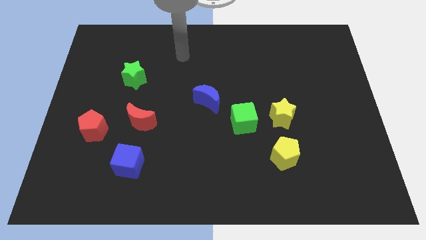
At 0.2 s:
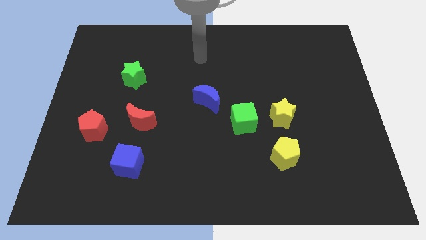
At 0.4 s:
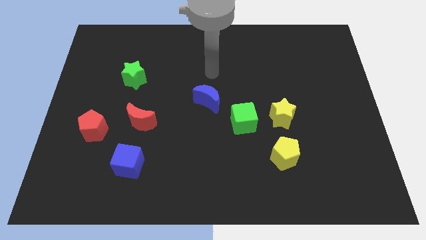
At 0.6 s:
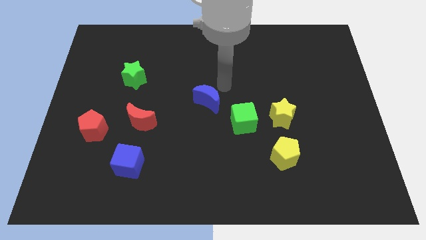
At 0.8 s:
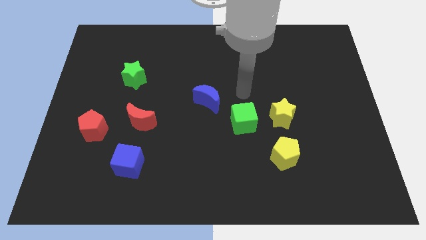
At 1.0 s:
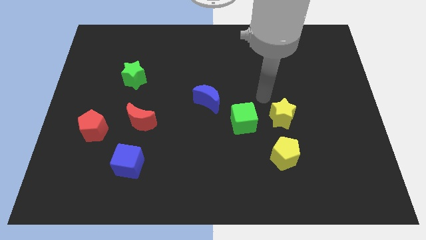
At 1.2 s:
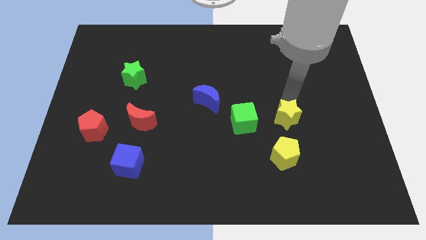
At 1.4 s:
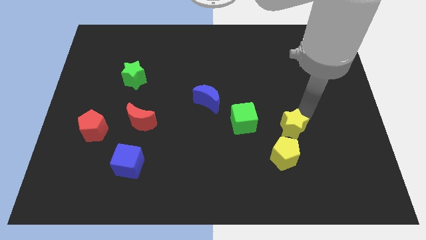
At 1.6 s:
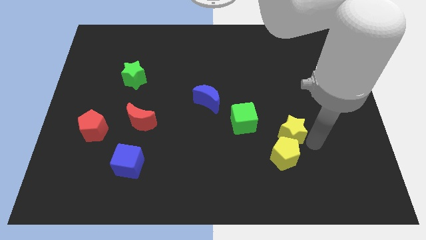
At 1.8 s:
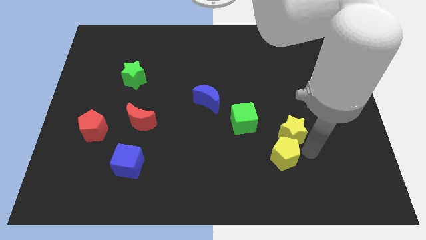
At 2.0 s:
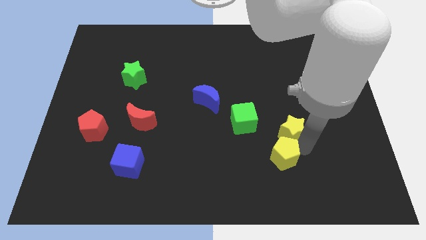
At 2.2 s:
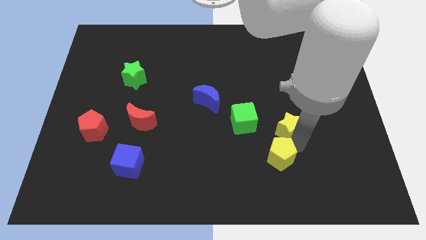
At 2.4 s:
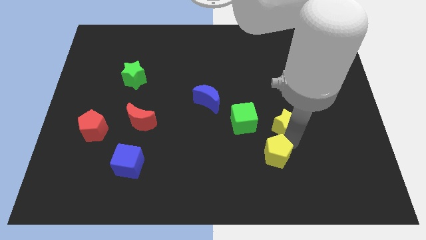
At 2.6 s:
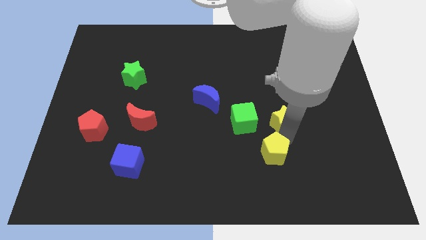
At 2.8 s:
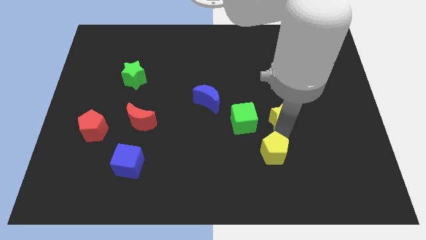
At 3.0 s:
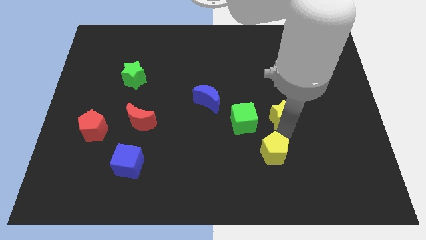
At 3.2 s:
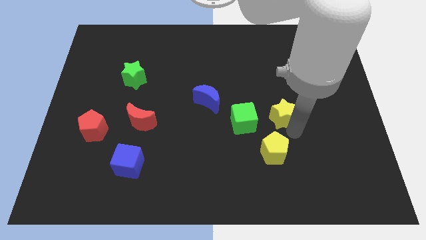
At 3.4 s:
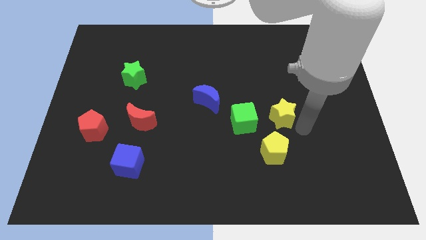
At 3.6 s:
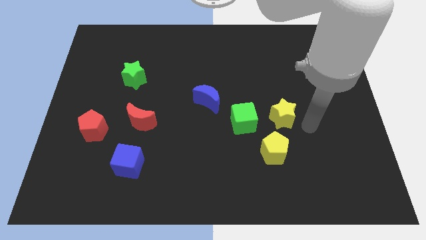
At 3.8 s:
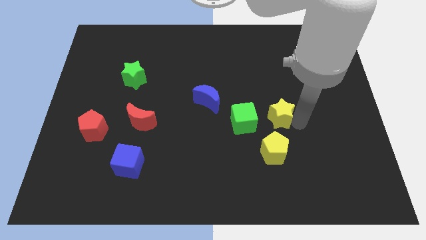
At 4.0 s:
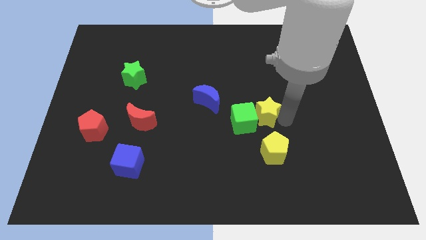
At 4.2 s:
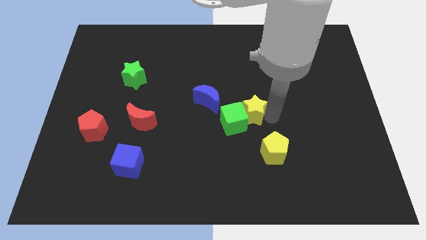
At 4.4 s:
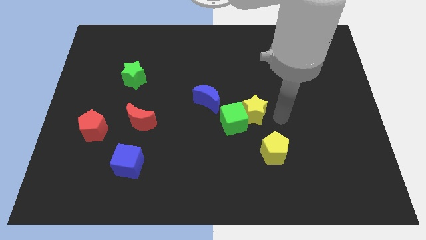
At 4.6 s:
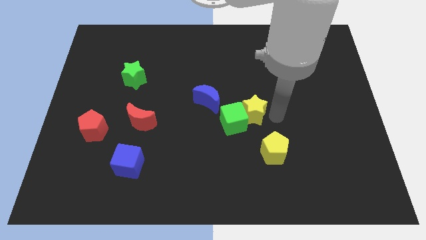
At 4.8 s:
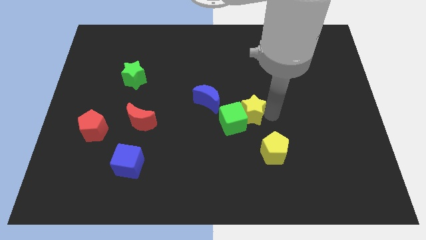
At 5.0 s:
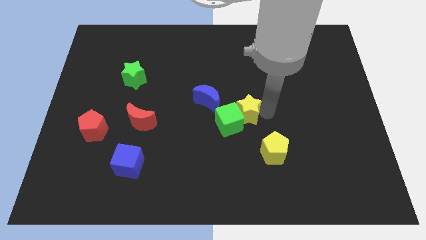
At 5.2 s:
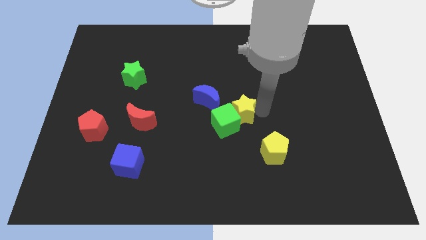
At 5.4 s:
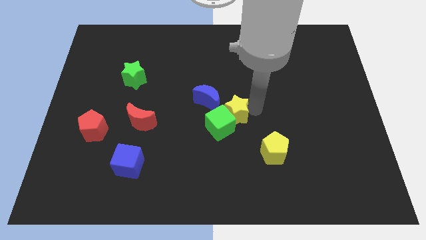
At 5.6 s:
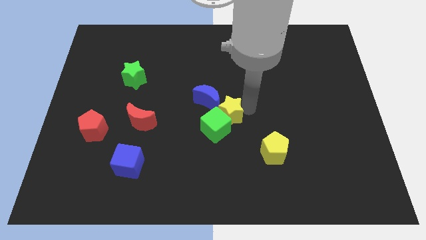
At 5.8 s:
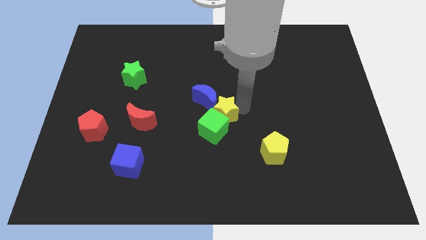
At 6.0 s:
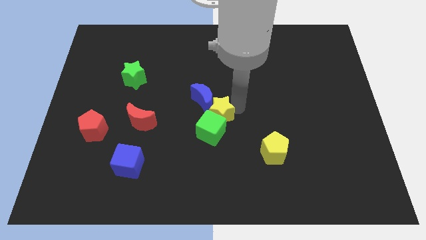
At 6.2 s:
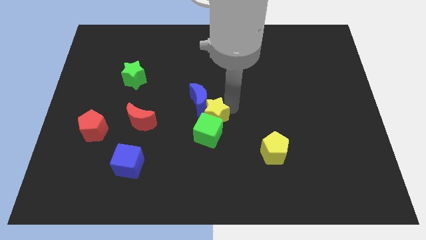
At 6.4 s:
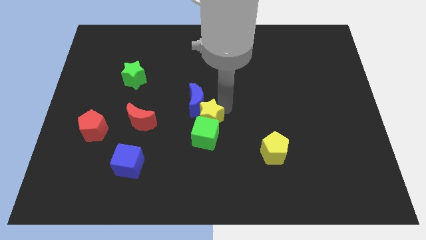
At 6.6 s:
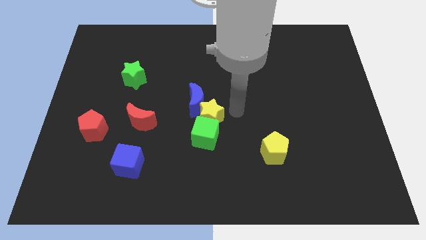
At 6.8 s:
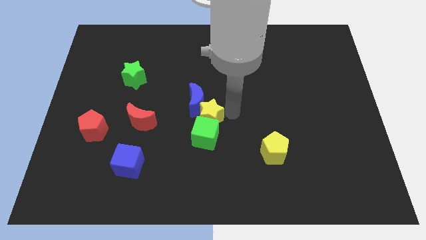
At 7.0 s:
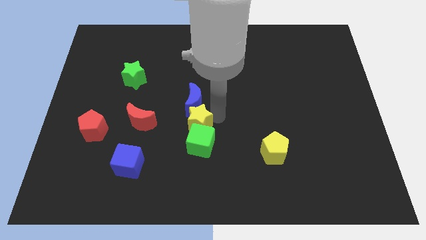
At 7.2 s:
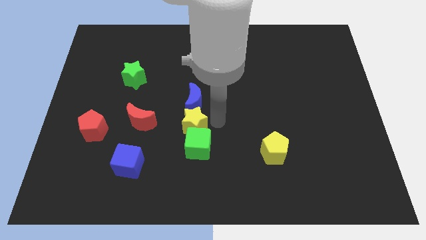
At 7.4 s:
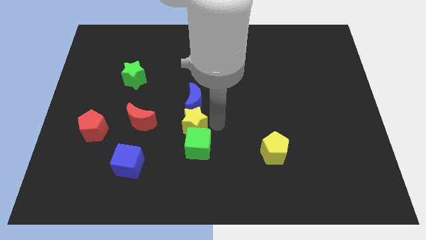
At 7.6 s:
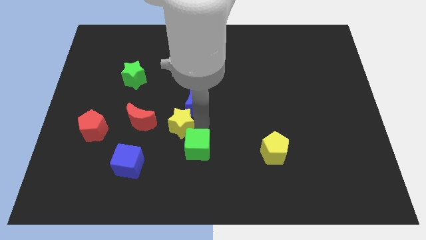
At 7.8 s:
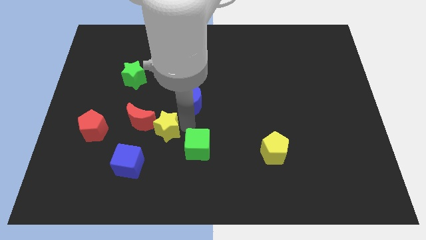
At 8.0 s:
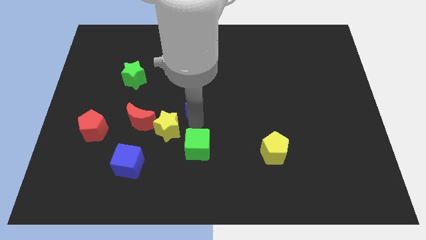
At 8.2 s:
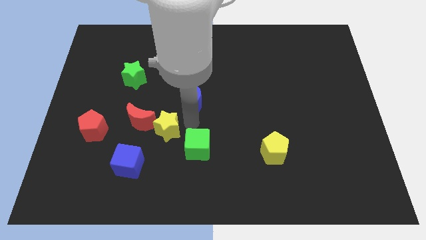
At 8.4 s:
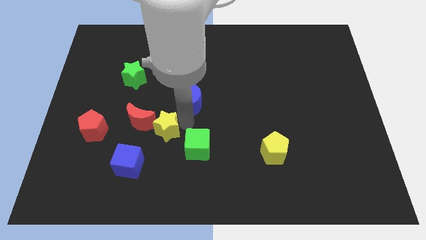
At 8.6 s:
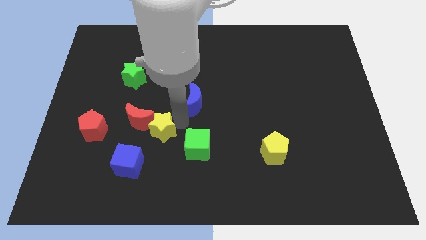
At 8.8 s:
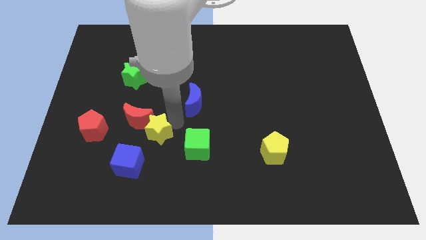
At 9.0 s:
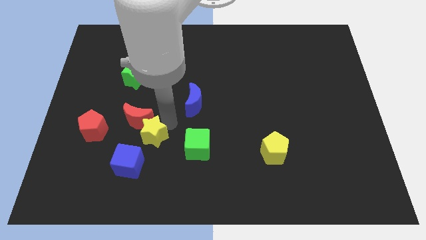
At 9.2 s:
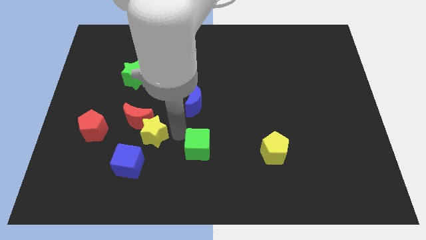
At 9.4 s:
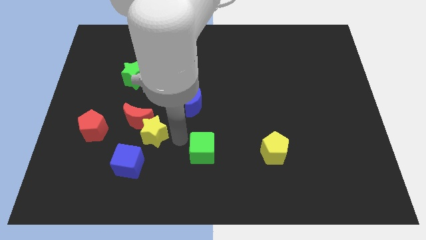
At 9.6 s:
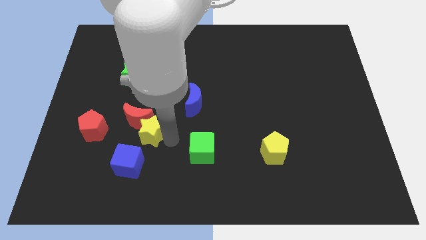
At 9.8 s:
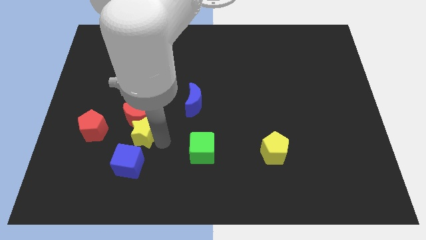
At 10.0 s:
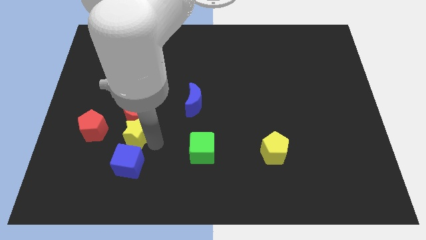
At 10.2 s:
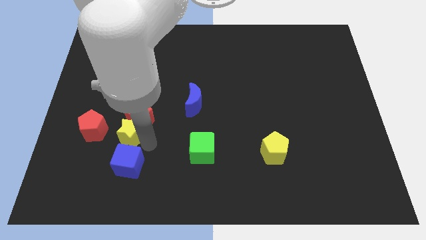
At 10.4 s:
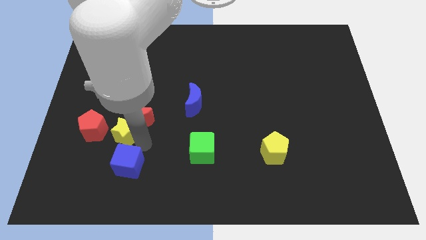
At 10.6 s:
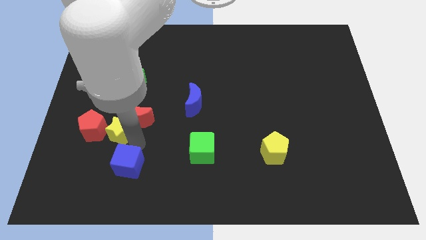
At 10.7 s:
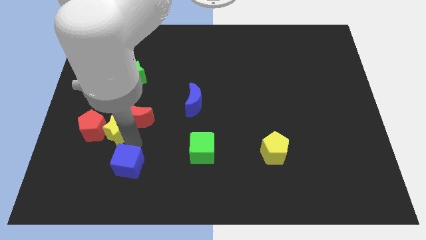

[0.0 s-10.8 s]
move the yellow star close to the red pentagon

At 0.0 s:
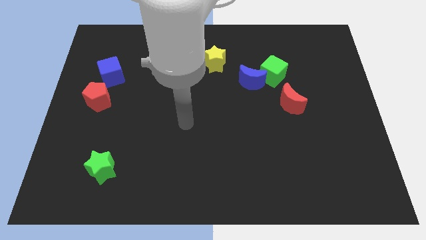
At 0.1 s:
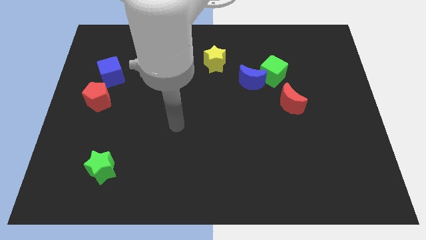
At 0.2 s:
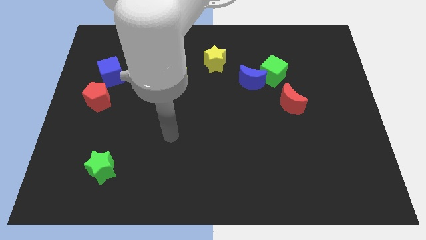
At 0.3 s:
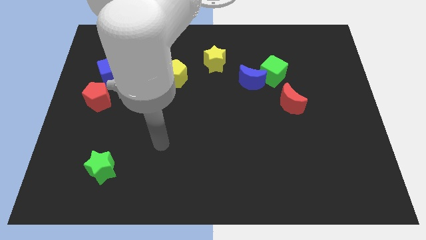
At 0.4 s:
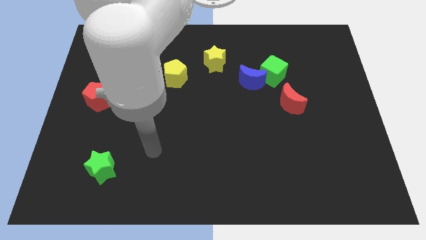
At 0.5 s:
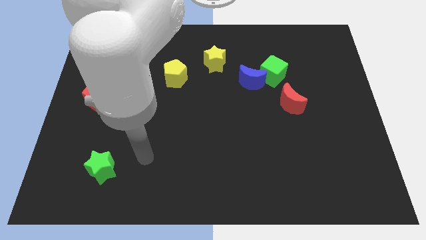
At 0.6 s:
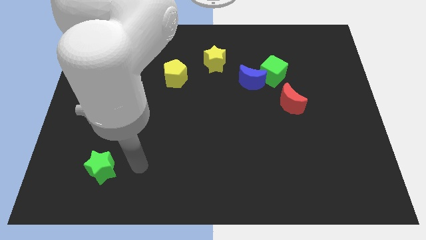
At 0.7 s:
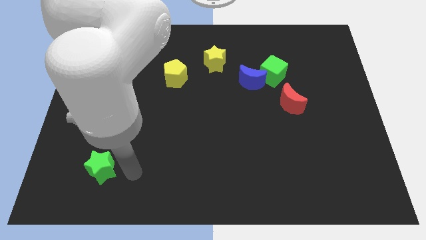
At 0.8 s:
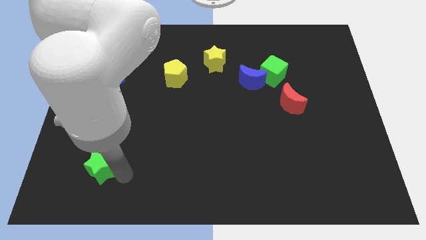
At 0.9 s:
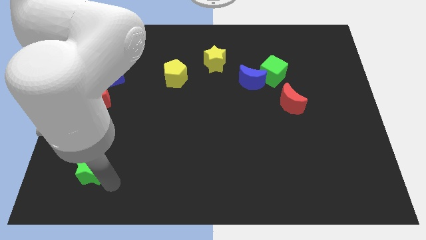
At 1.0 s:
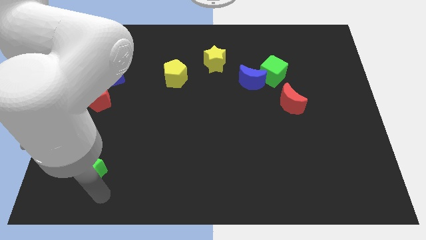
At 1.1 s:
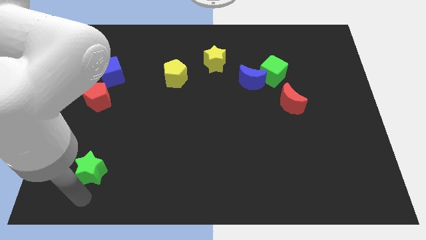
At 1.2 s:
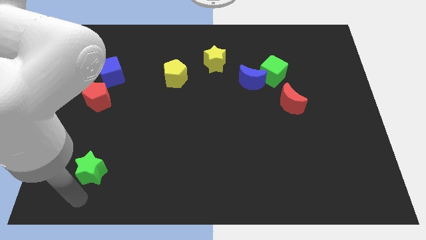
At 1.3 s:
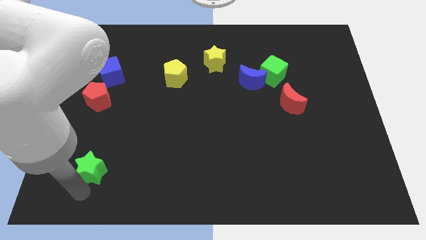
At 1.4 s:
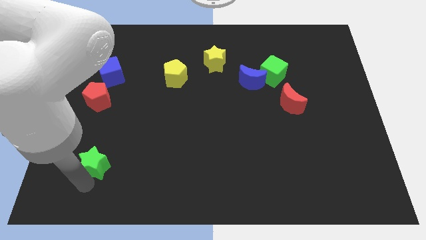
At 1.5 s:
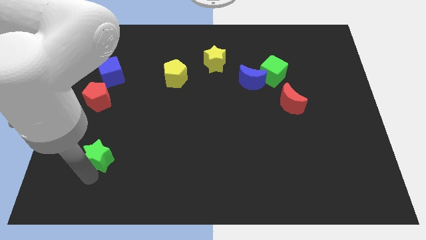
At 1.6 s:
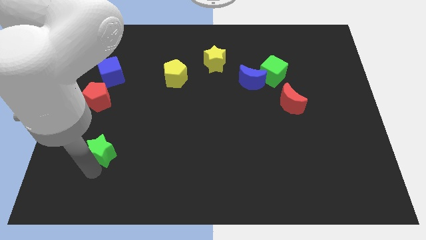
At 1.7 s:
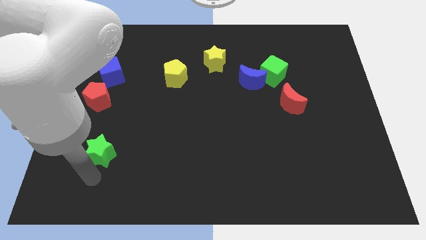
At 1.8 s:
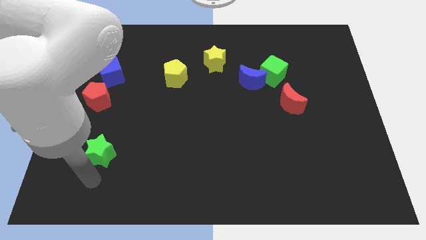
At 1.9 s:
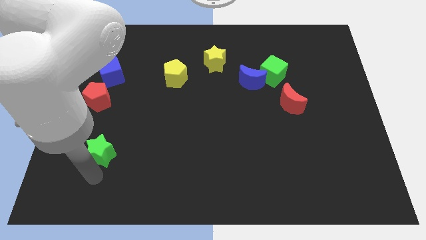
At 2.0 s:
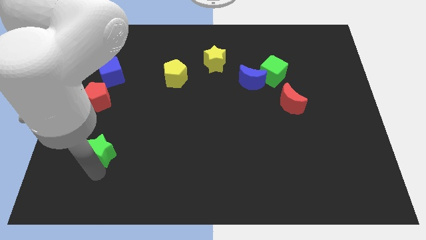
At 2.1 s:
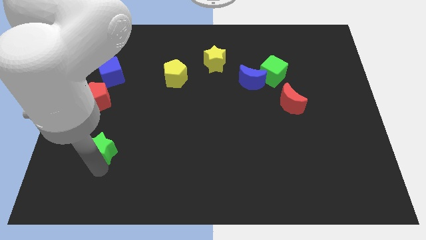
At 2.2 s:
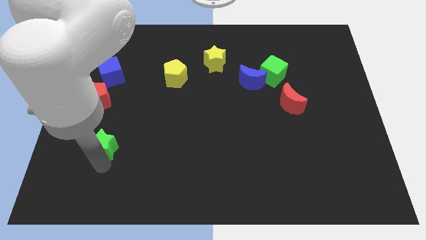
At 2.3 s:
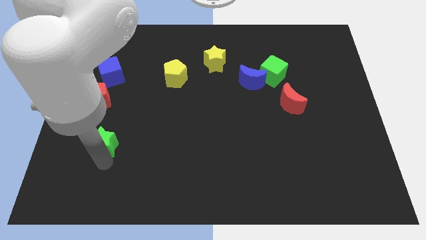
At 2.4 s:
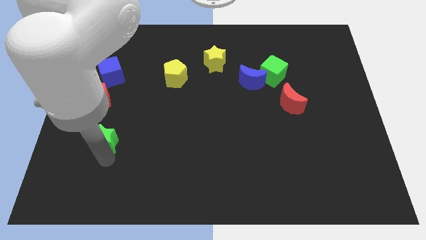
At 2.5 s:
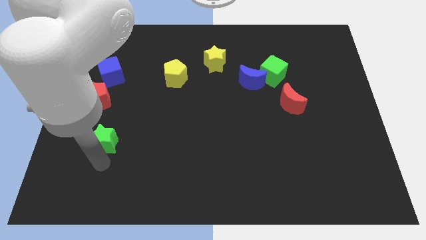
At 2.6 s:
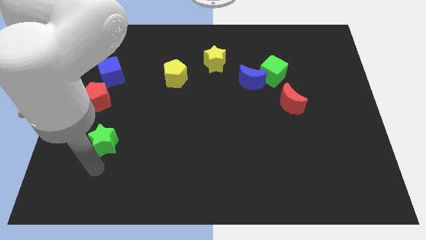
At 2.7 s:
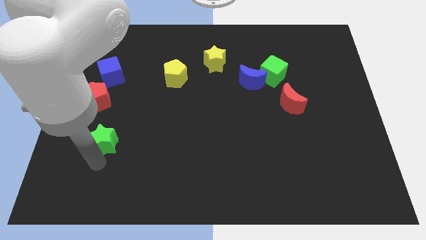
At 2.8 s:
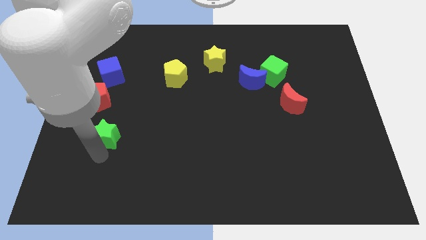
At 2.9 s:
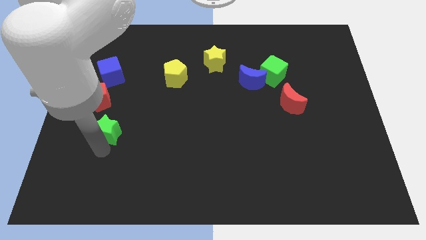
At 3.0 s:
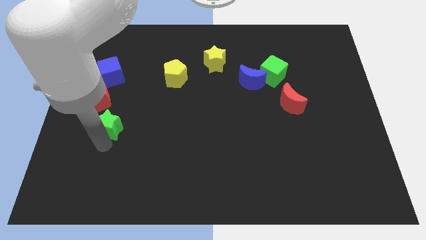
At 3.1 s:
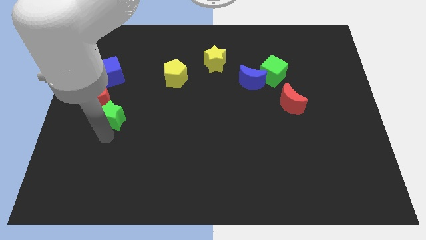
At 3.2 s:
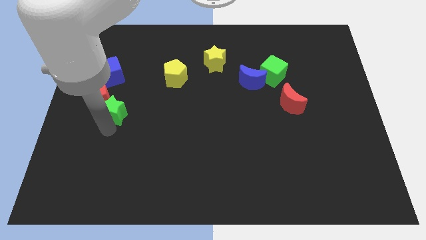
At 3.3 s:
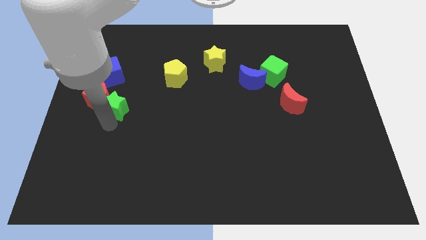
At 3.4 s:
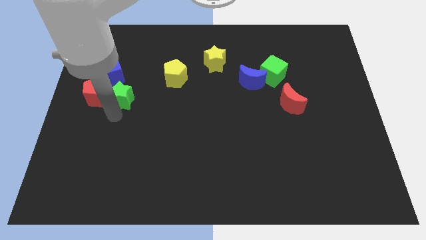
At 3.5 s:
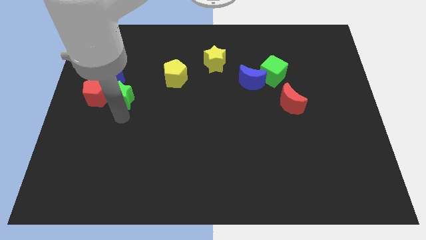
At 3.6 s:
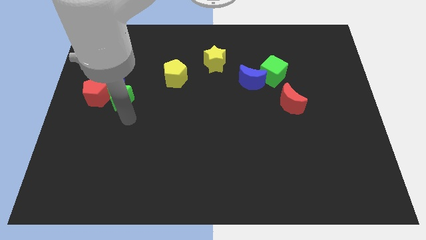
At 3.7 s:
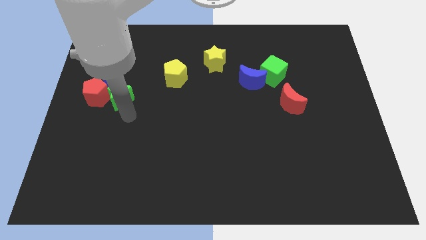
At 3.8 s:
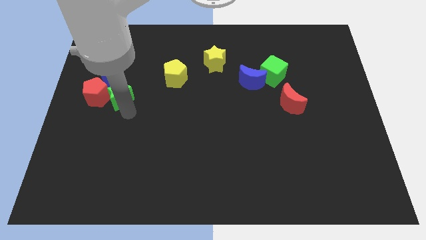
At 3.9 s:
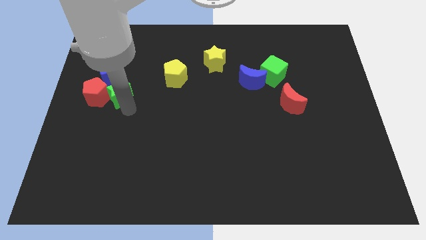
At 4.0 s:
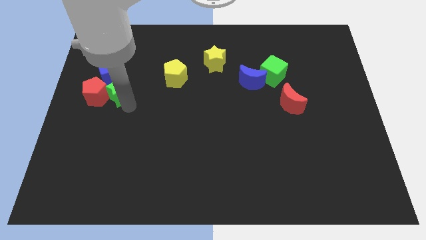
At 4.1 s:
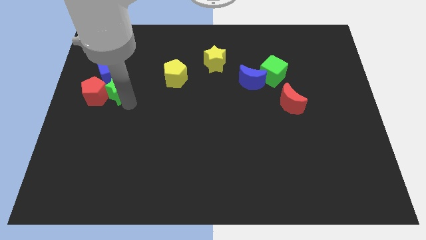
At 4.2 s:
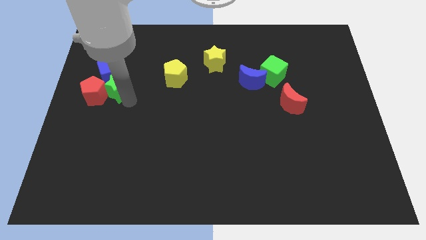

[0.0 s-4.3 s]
move the green star close to the blue cube
